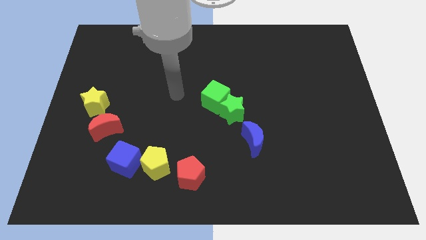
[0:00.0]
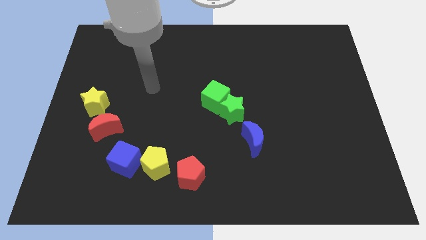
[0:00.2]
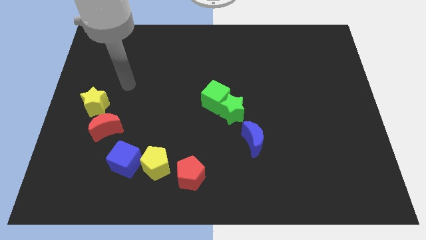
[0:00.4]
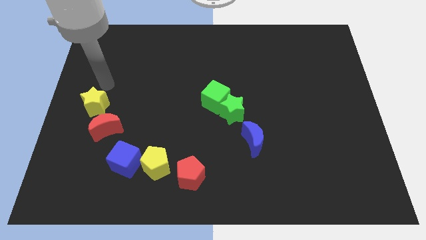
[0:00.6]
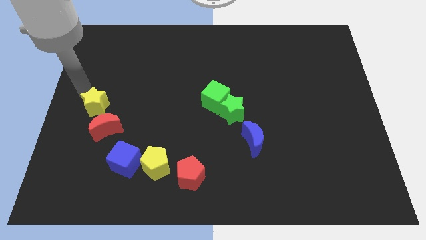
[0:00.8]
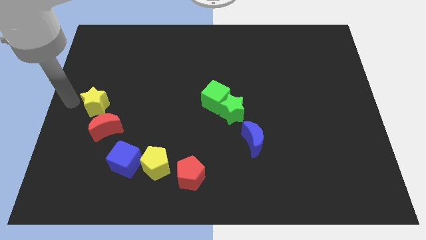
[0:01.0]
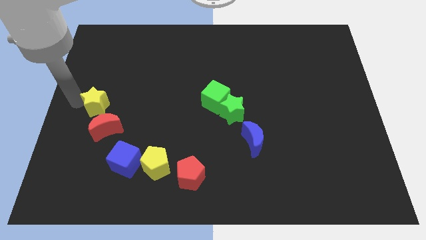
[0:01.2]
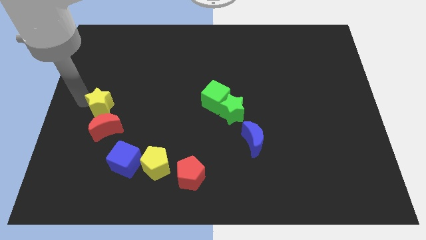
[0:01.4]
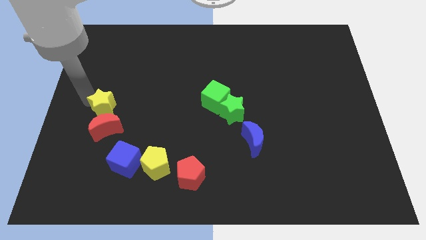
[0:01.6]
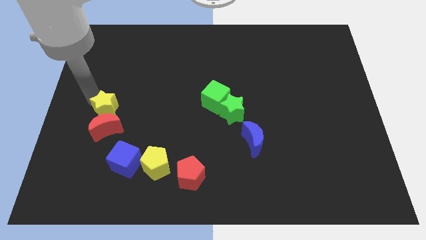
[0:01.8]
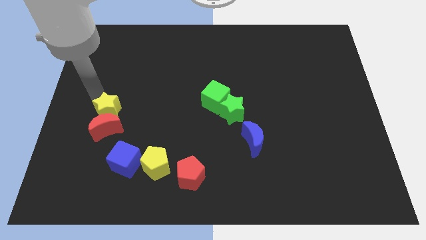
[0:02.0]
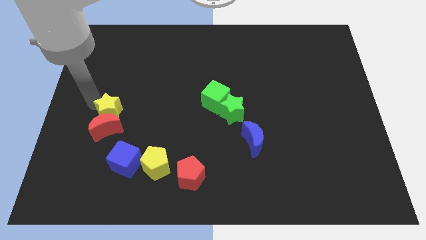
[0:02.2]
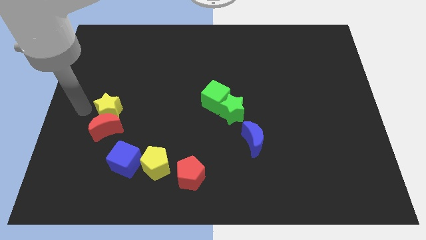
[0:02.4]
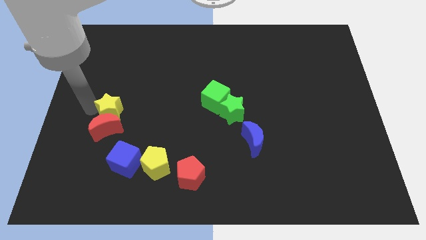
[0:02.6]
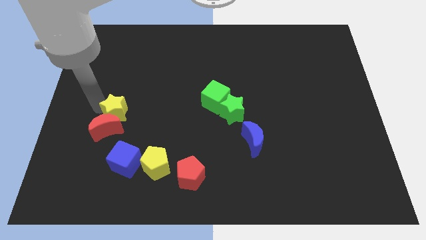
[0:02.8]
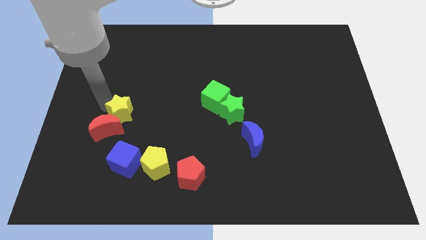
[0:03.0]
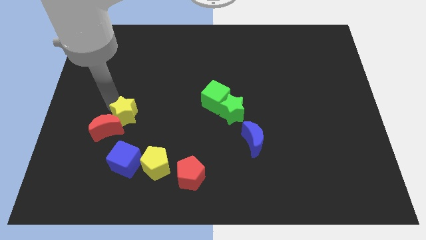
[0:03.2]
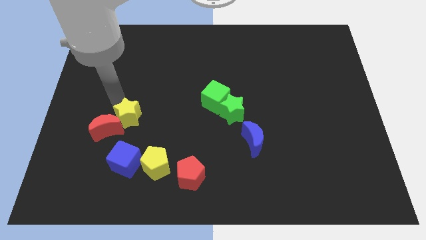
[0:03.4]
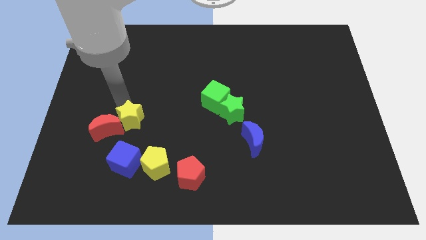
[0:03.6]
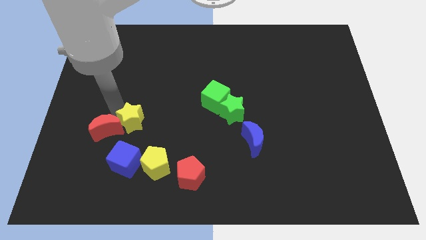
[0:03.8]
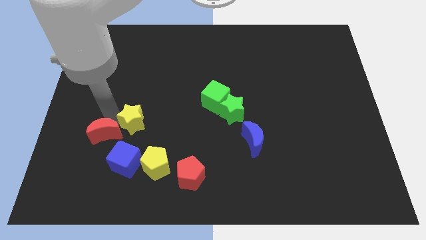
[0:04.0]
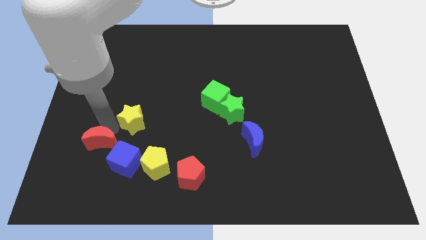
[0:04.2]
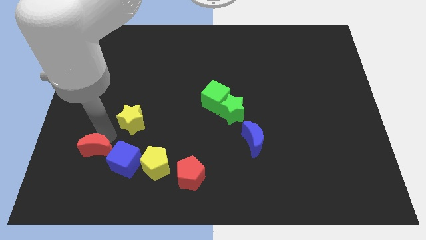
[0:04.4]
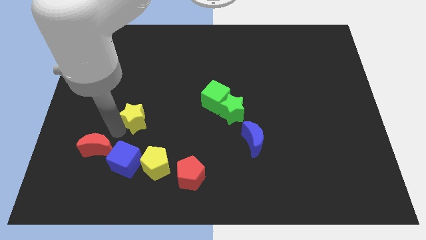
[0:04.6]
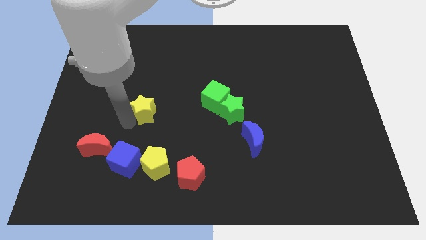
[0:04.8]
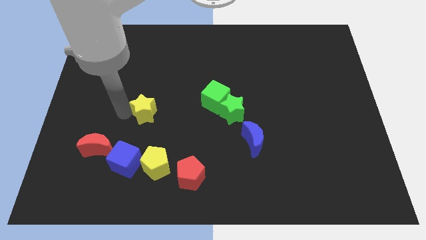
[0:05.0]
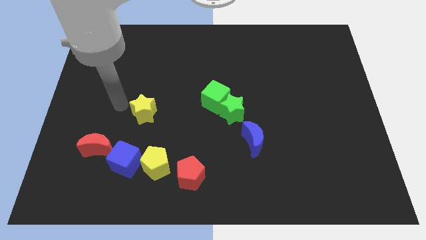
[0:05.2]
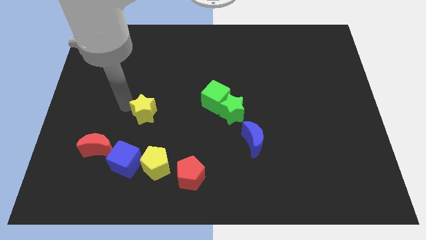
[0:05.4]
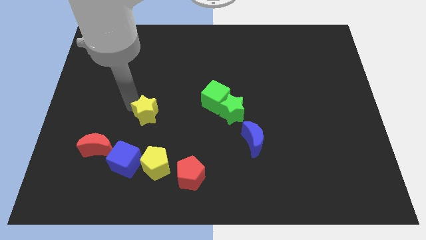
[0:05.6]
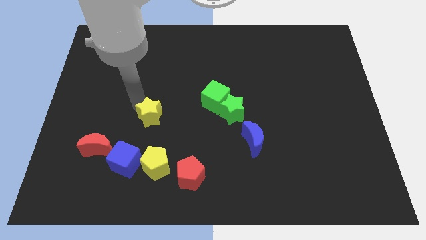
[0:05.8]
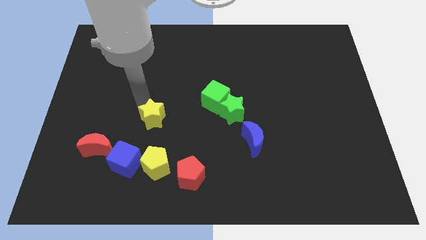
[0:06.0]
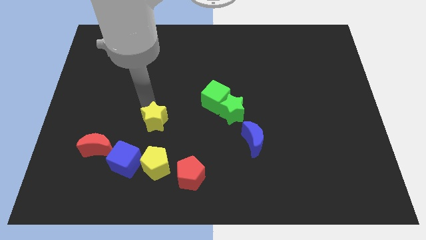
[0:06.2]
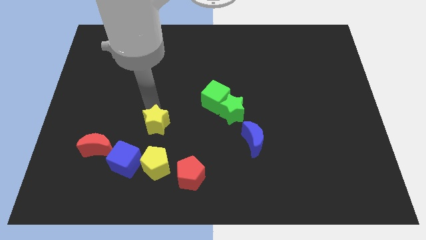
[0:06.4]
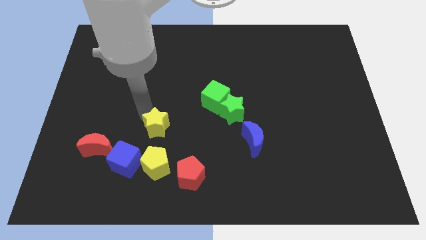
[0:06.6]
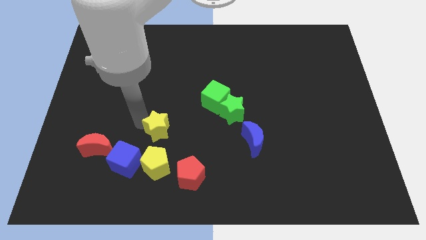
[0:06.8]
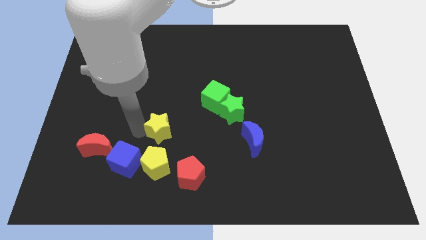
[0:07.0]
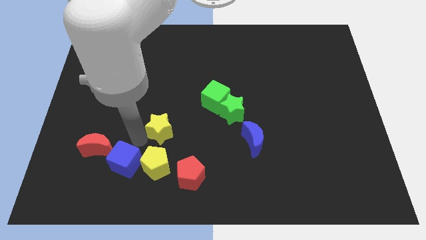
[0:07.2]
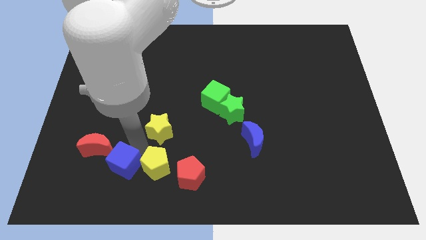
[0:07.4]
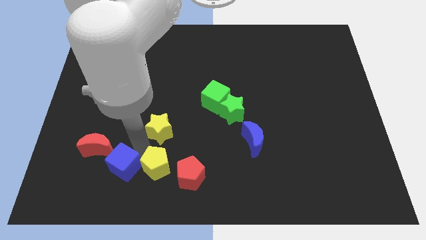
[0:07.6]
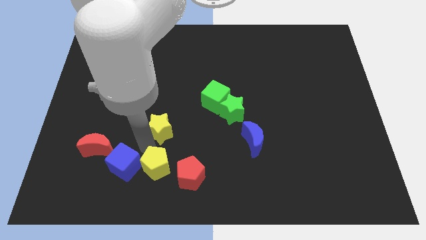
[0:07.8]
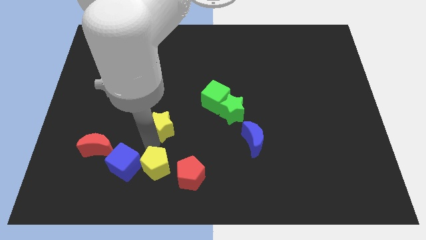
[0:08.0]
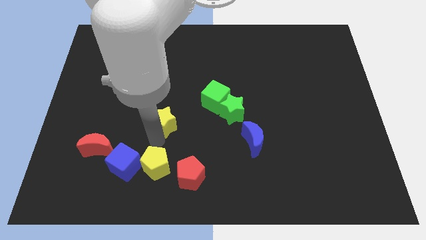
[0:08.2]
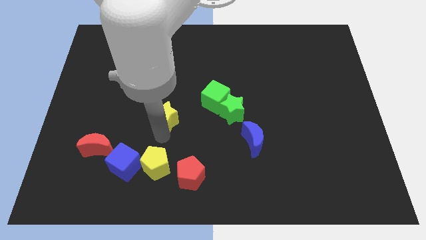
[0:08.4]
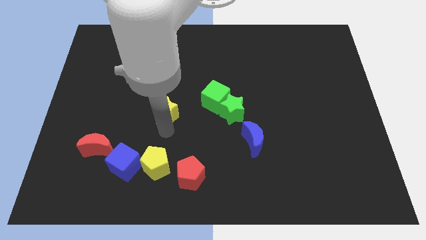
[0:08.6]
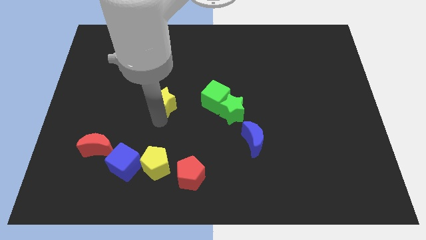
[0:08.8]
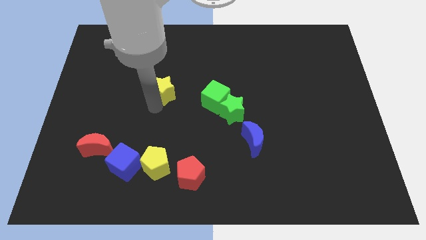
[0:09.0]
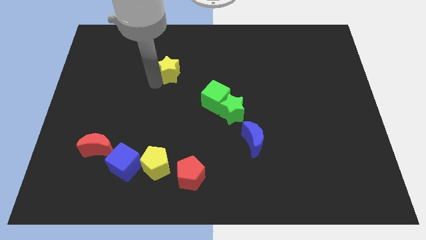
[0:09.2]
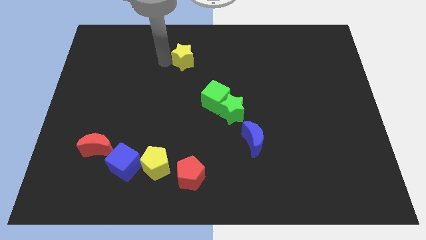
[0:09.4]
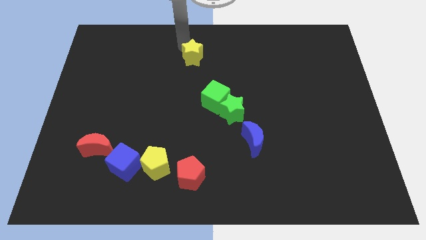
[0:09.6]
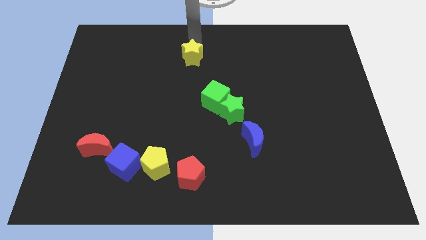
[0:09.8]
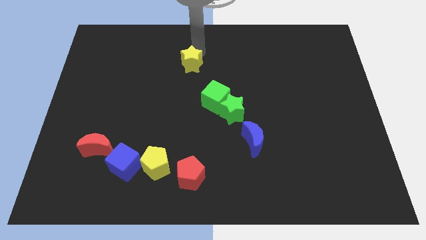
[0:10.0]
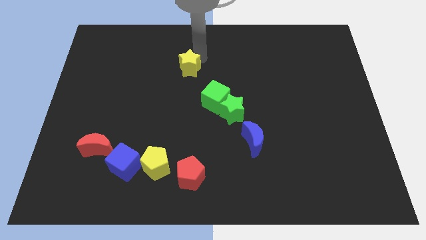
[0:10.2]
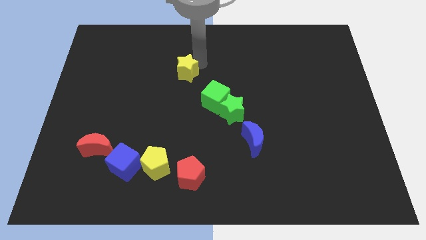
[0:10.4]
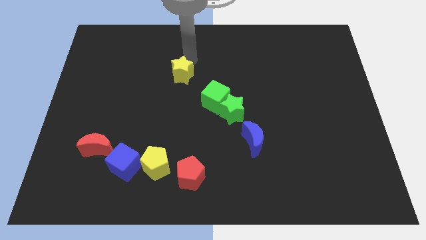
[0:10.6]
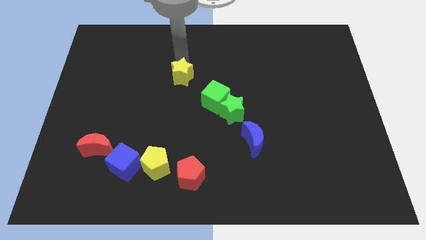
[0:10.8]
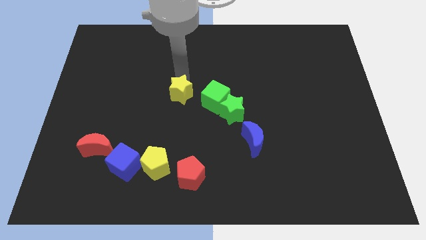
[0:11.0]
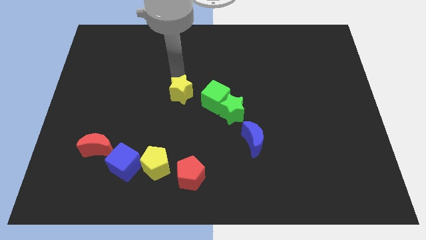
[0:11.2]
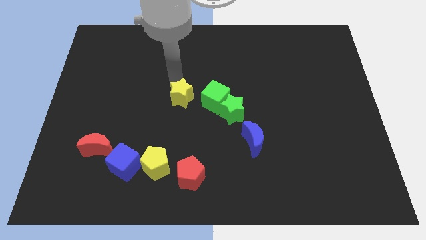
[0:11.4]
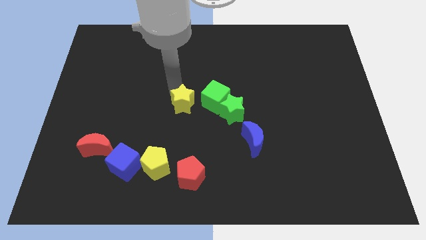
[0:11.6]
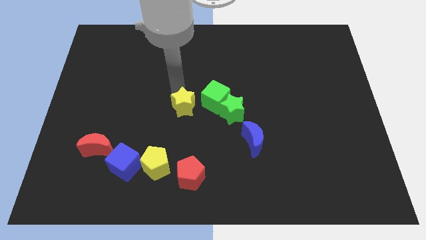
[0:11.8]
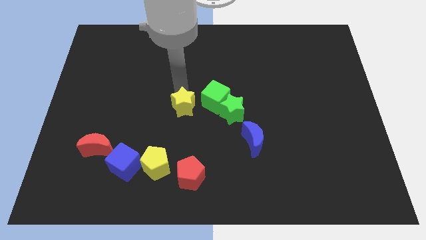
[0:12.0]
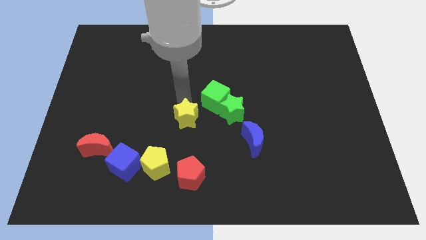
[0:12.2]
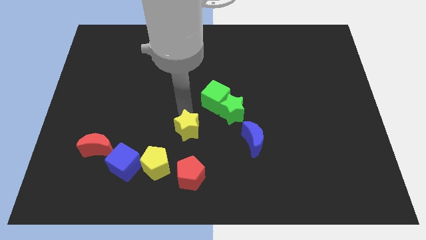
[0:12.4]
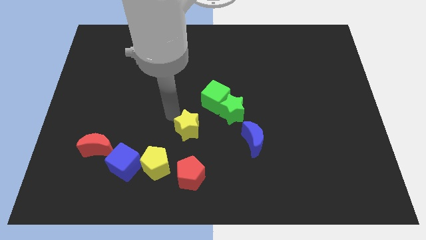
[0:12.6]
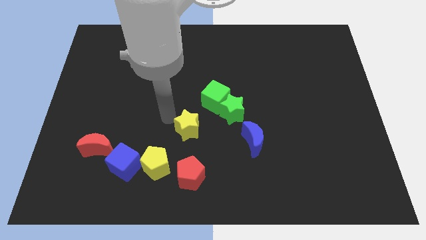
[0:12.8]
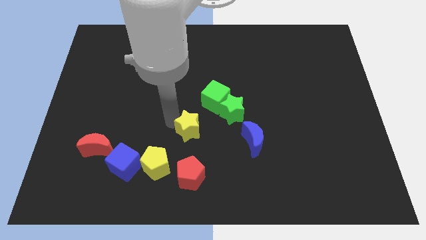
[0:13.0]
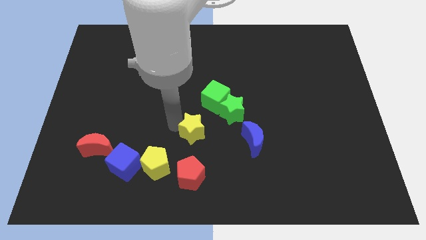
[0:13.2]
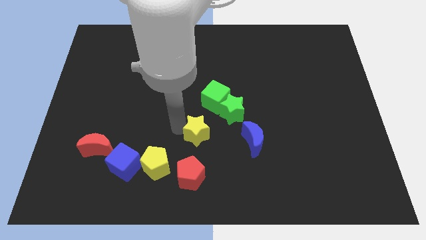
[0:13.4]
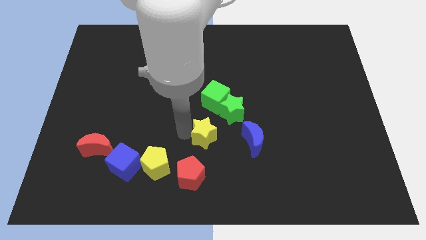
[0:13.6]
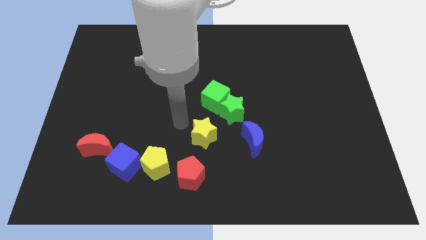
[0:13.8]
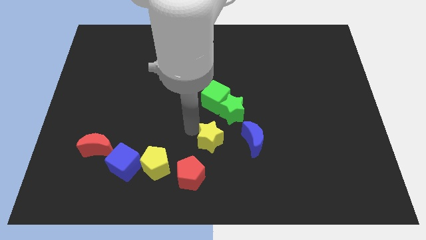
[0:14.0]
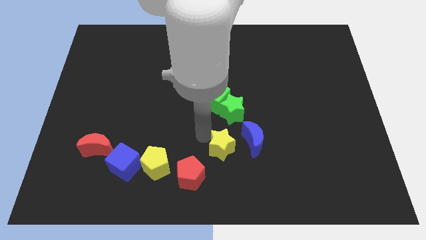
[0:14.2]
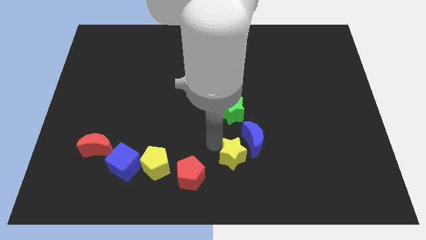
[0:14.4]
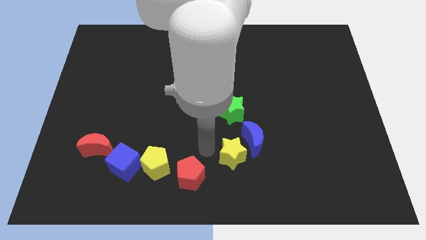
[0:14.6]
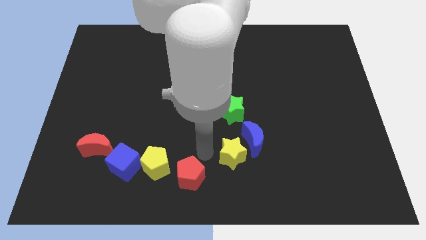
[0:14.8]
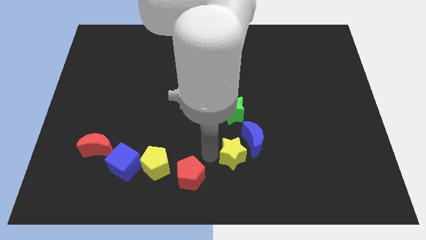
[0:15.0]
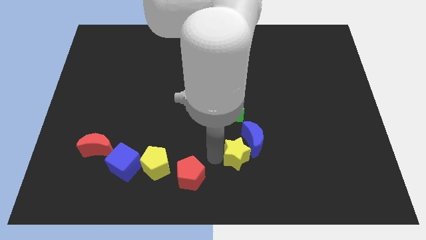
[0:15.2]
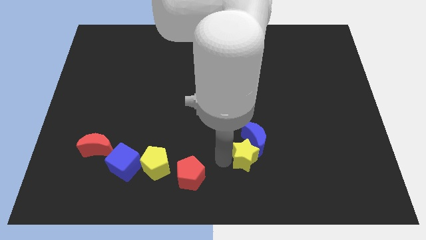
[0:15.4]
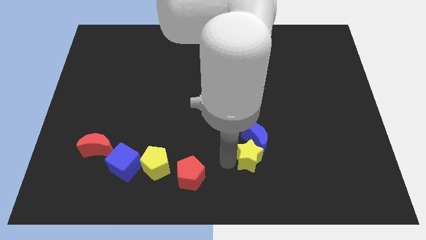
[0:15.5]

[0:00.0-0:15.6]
slide the yellow star to the bottom right side of the blue moon

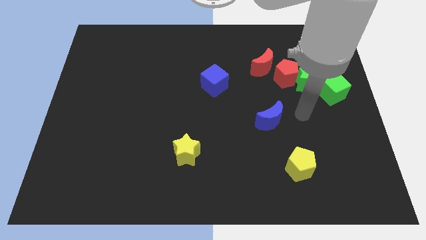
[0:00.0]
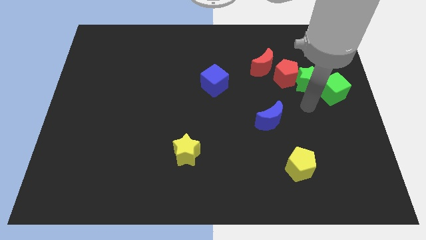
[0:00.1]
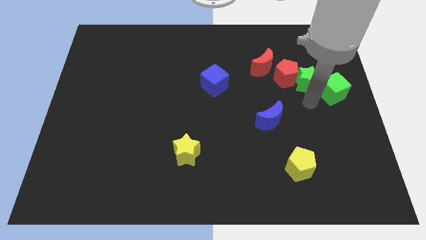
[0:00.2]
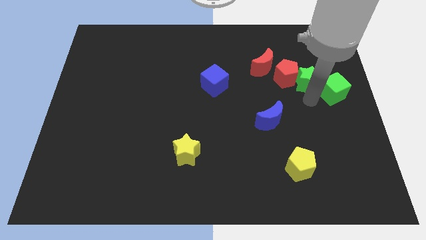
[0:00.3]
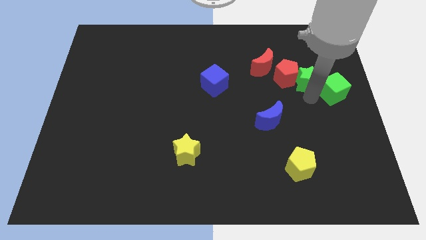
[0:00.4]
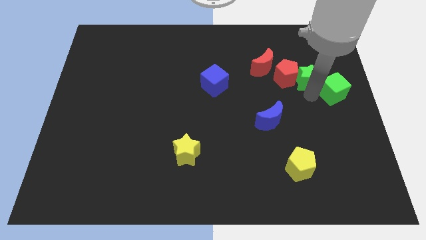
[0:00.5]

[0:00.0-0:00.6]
push the green star to the right side of the red moon
